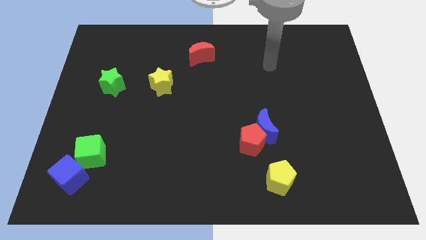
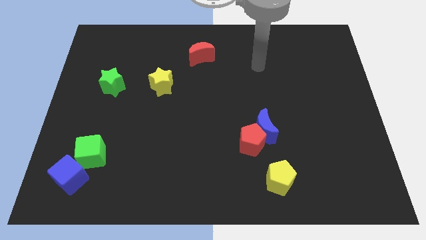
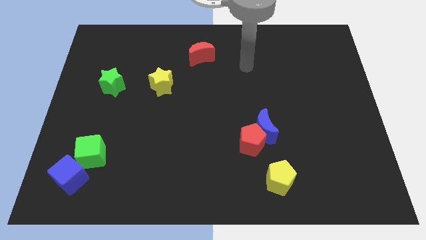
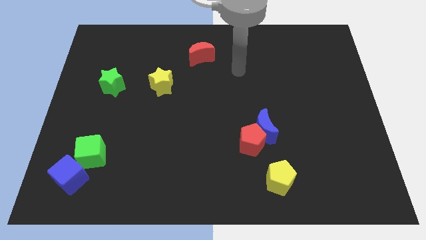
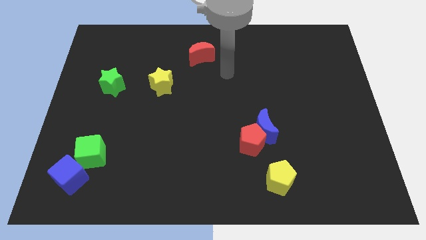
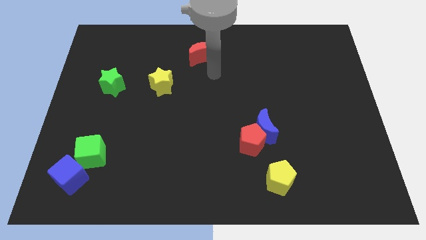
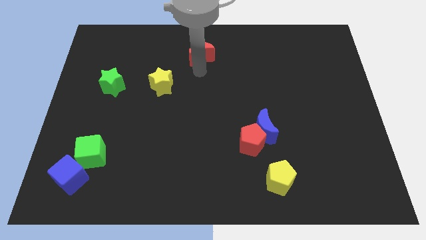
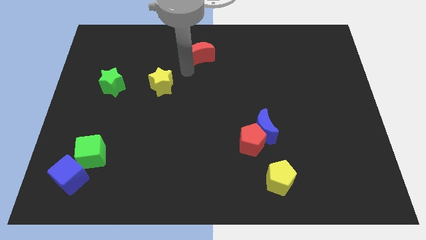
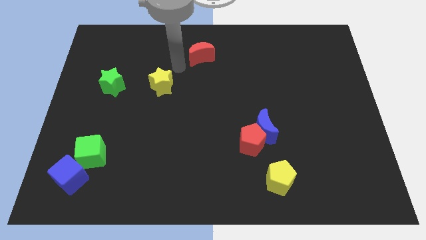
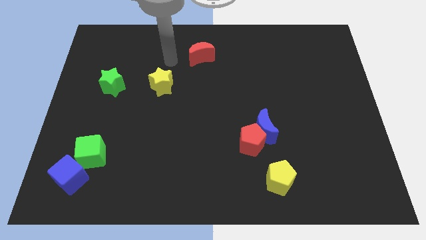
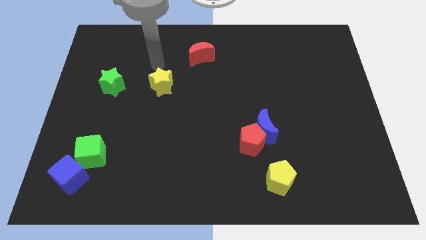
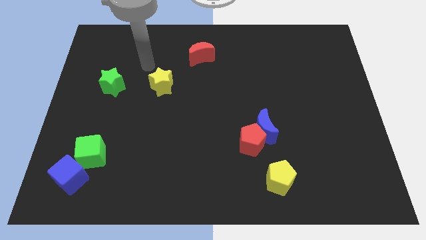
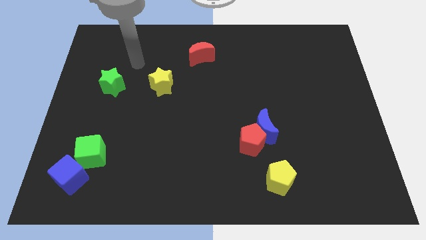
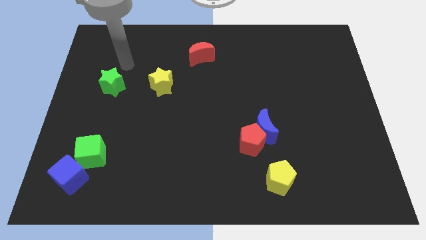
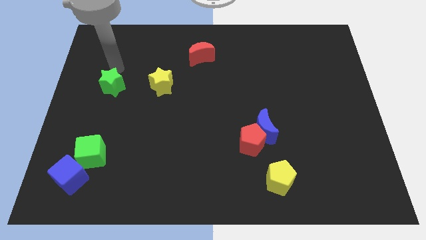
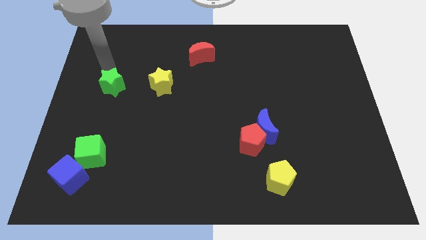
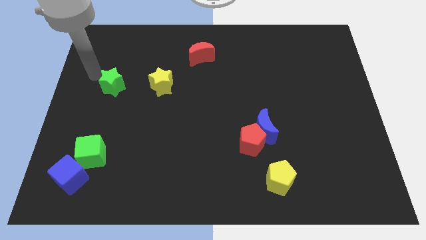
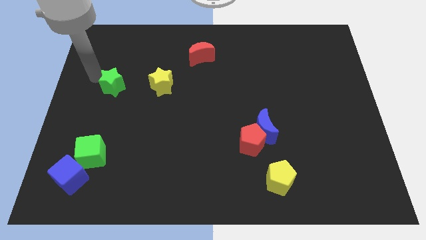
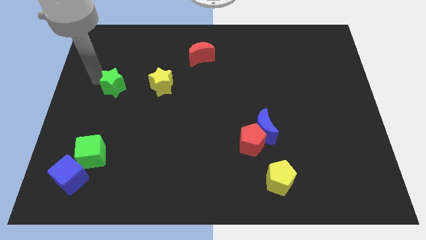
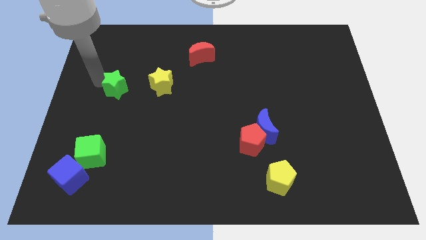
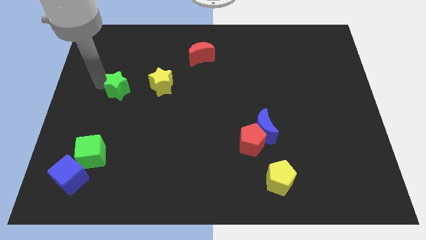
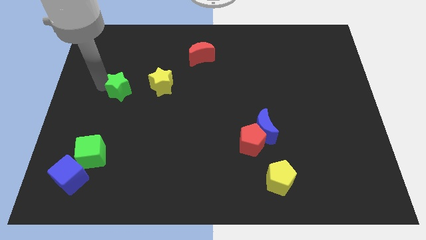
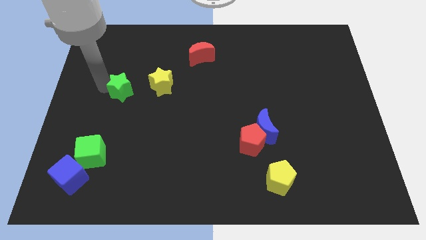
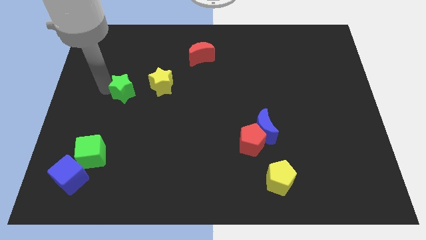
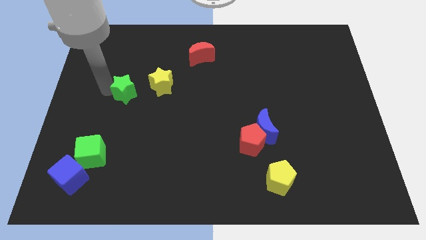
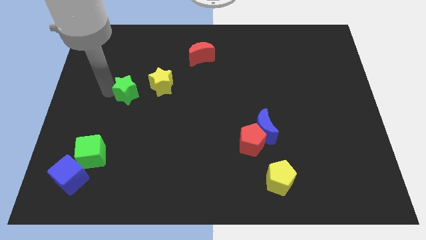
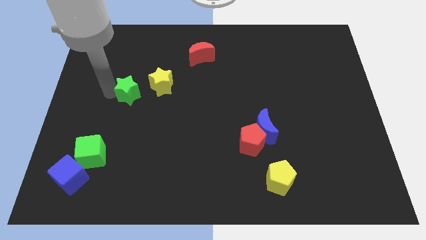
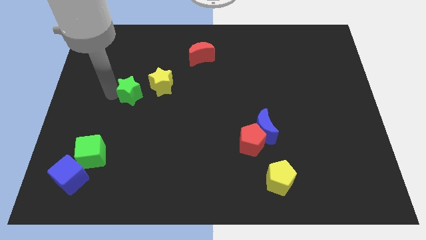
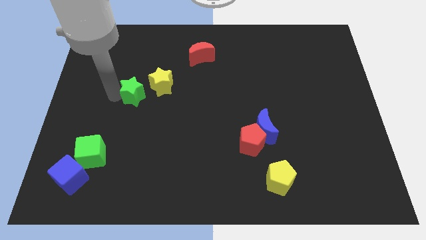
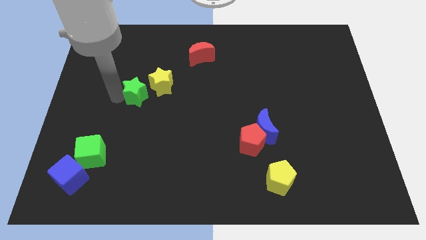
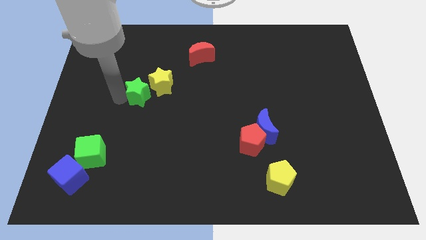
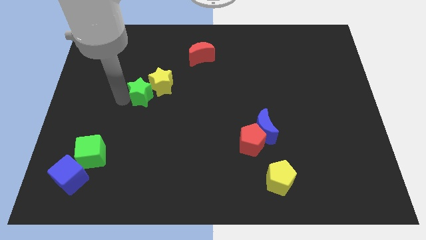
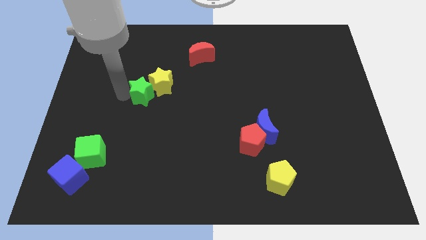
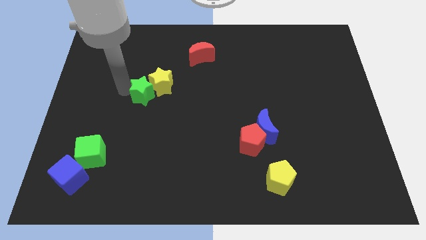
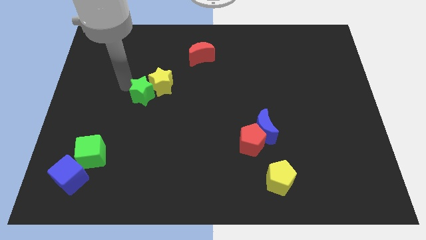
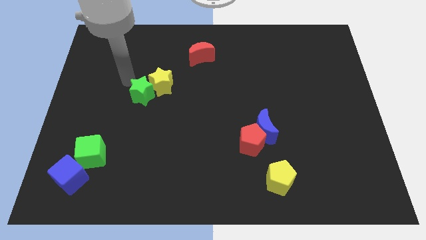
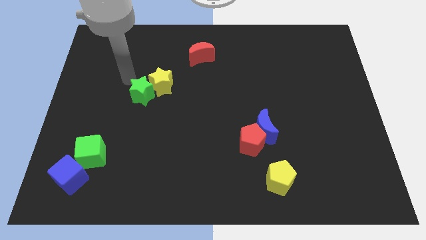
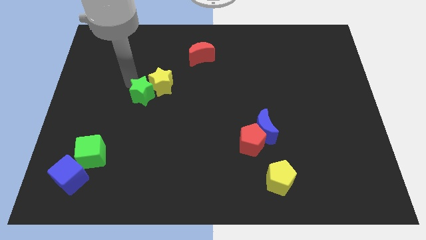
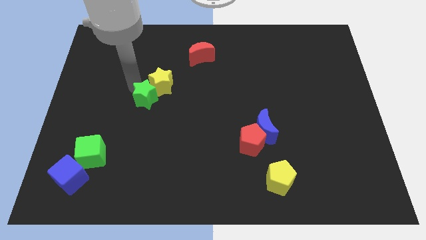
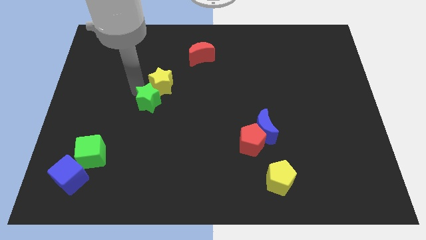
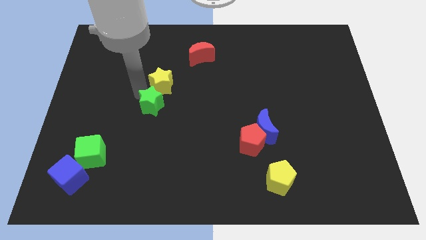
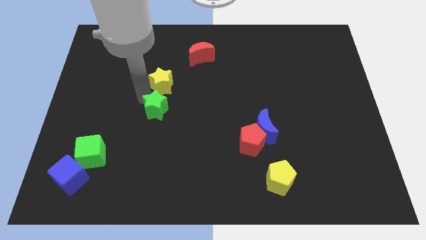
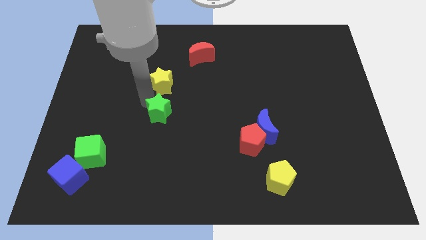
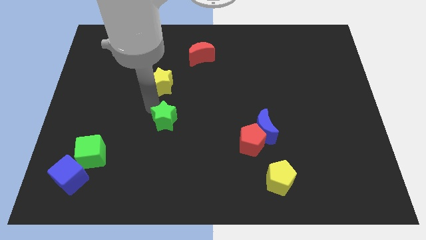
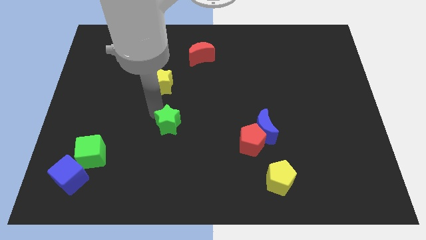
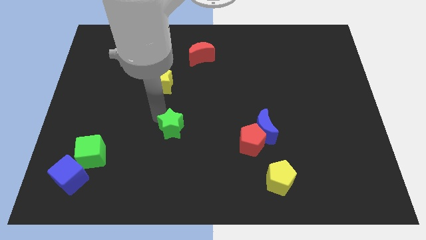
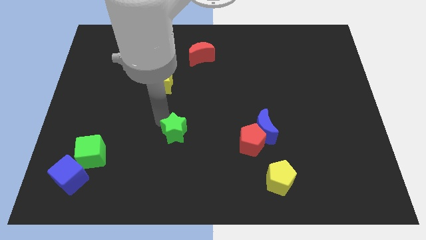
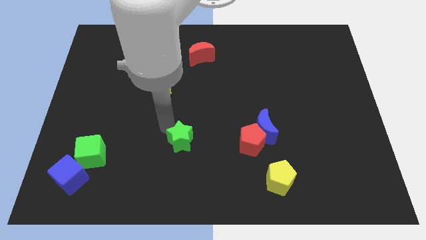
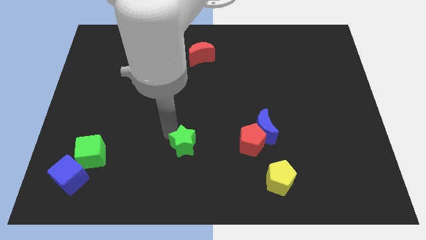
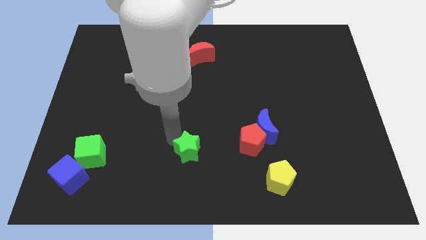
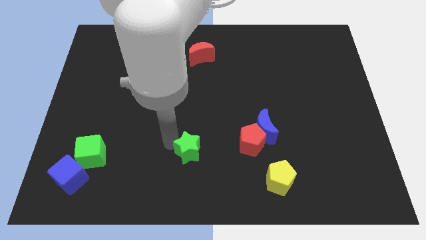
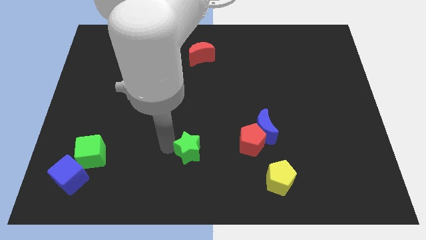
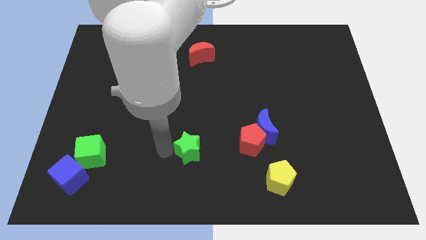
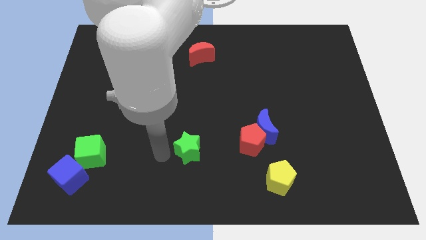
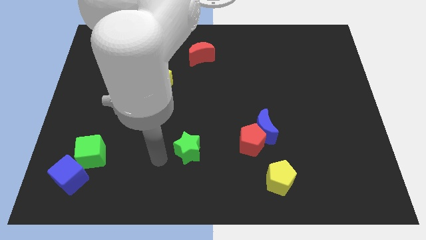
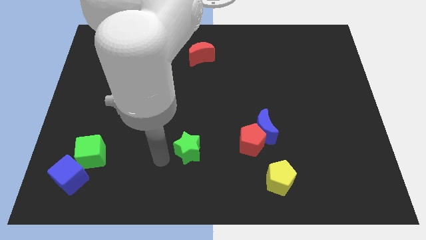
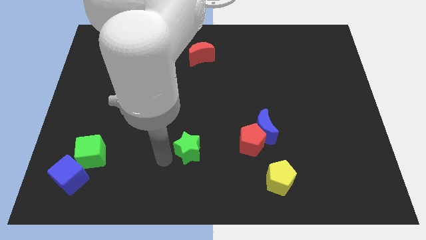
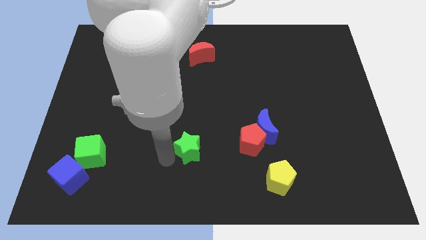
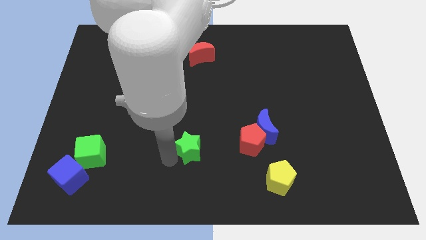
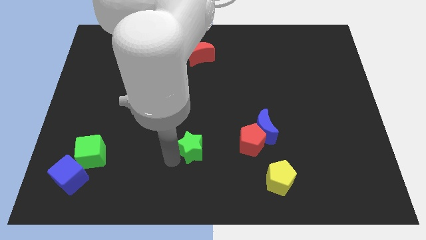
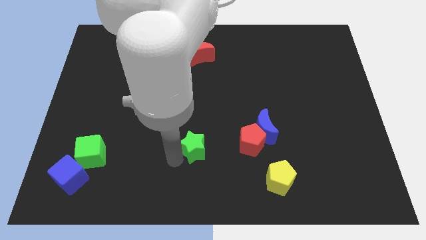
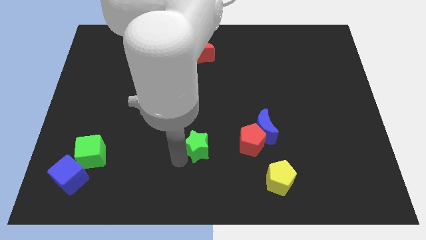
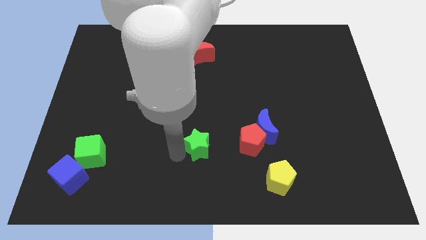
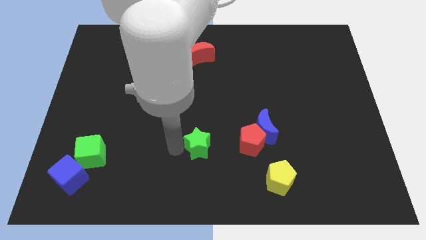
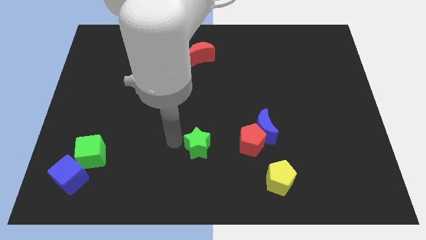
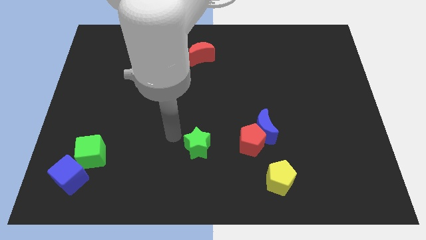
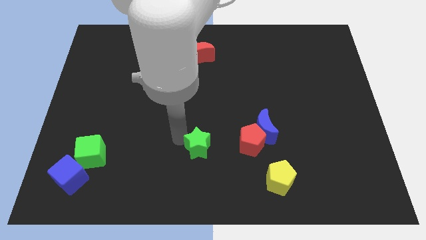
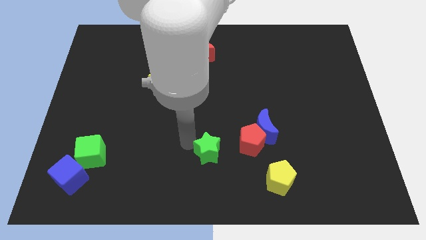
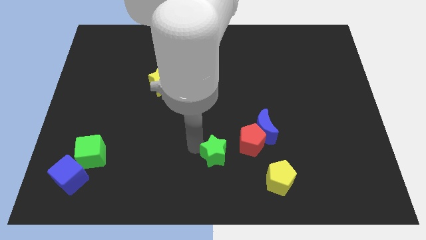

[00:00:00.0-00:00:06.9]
push the green star diagonally down and to the left of the red pentagon

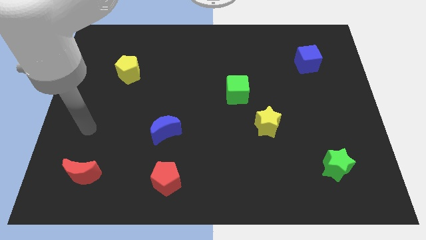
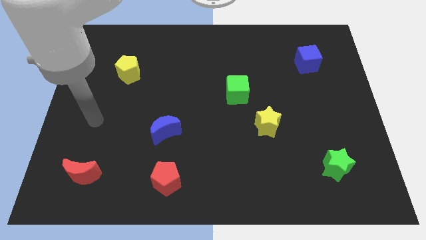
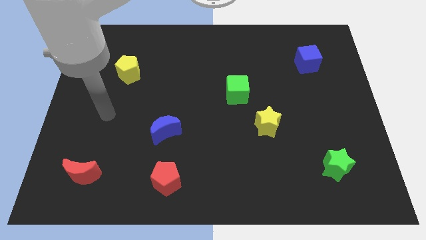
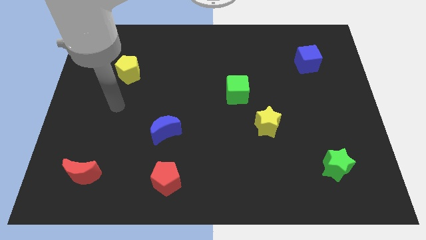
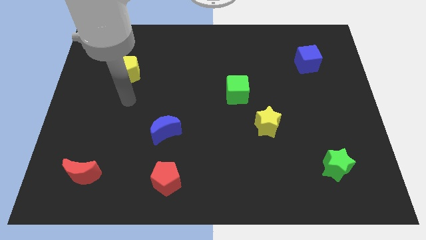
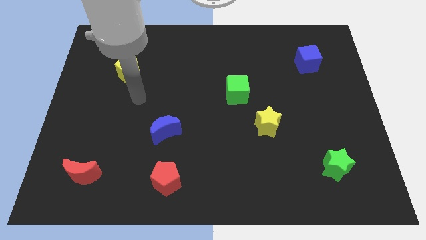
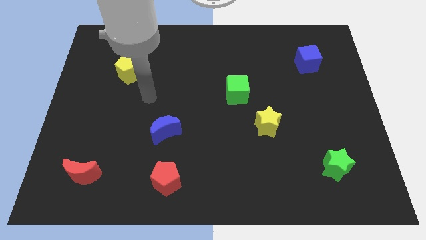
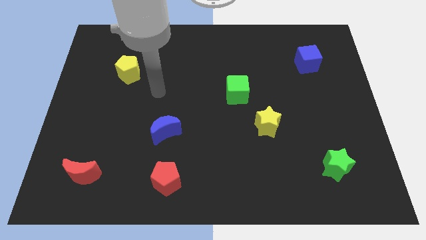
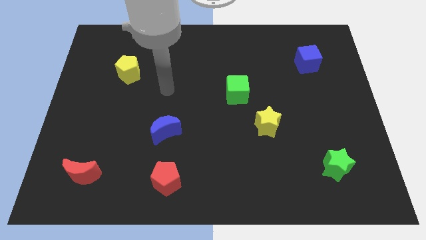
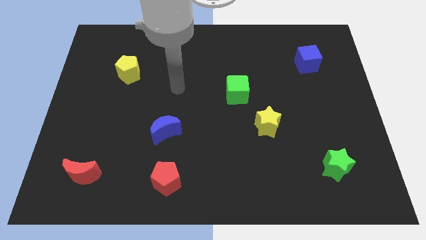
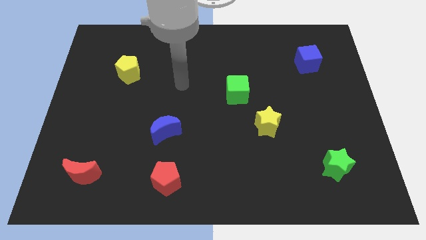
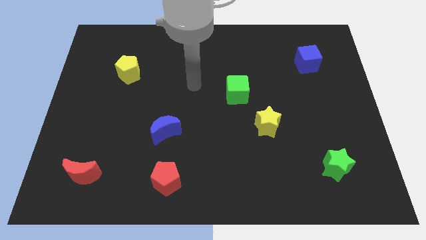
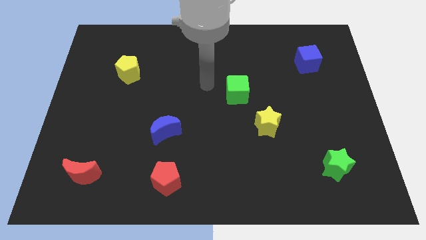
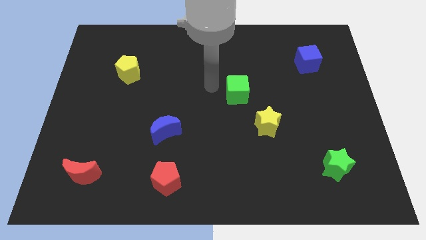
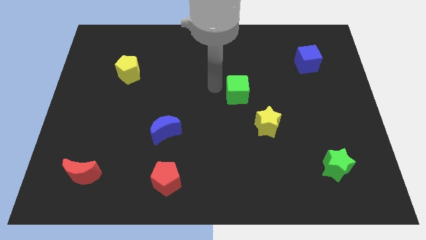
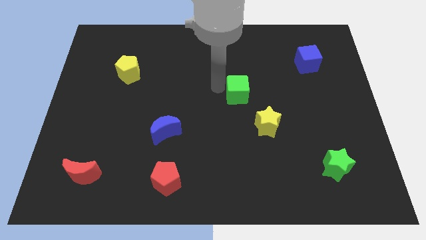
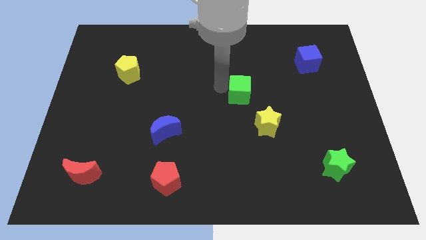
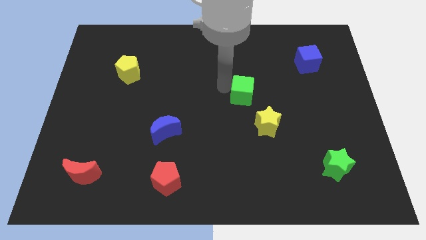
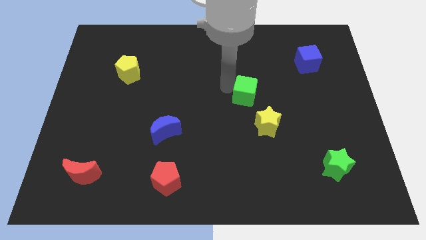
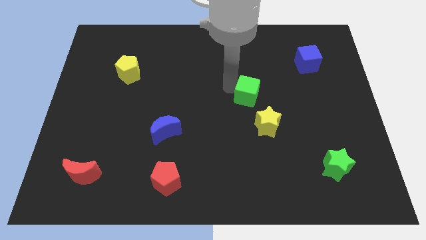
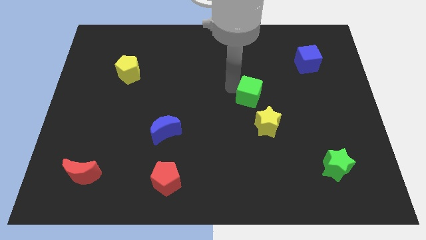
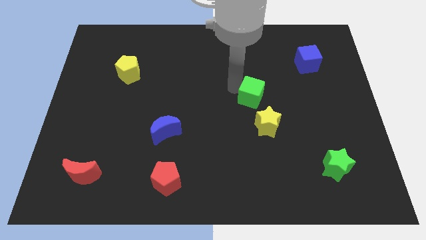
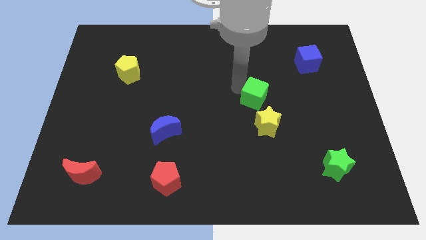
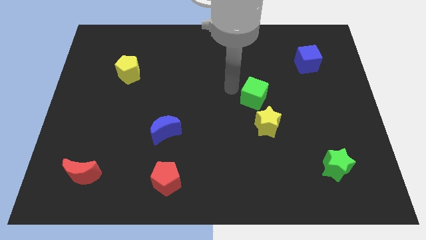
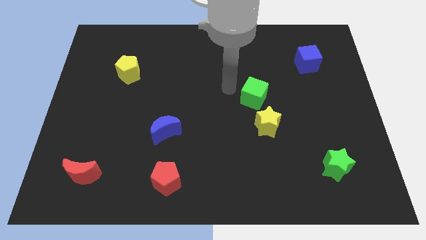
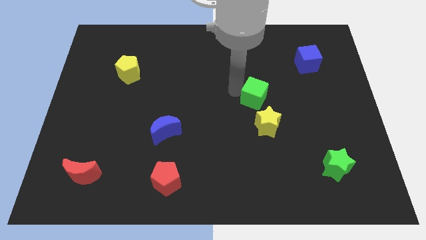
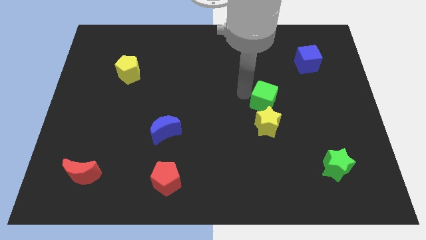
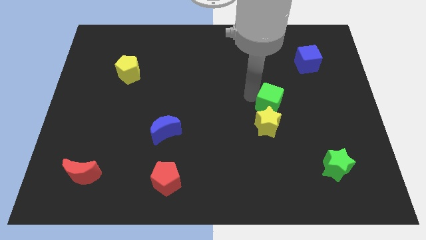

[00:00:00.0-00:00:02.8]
move the green cube to the top right of the yellow star
